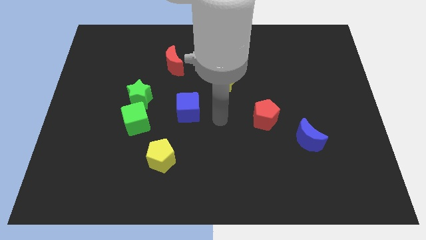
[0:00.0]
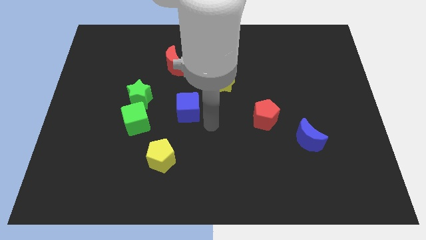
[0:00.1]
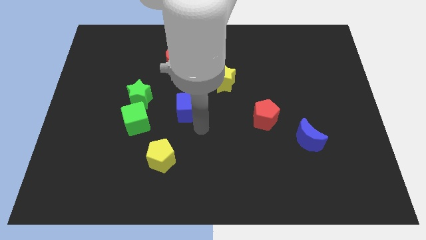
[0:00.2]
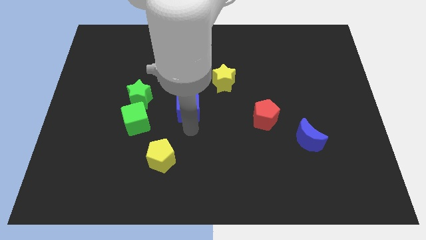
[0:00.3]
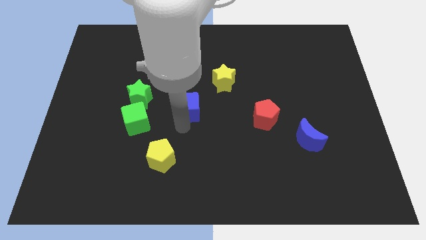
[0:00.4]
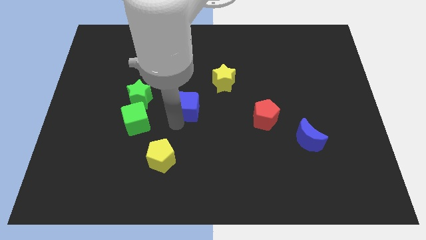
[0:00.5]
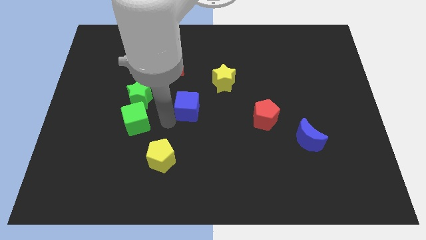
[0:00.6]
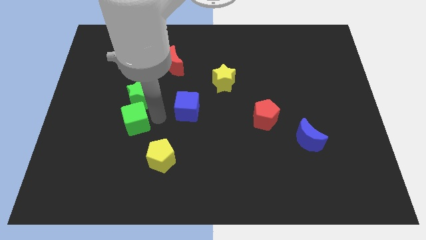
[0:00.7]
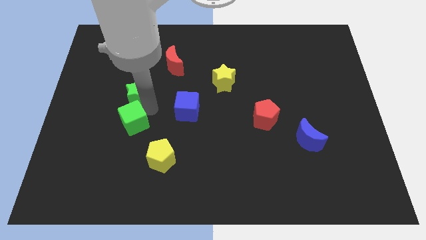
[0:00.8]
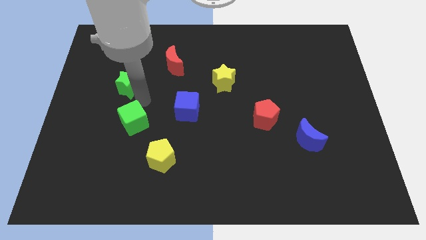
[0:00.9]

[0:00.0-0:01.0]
move the green cube away from the green star

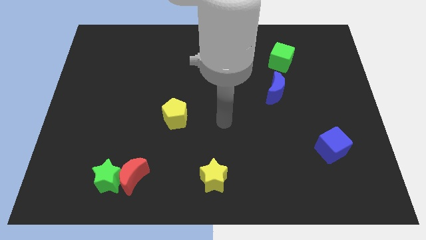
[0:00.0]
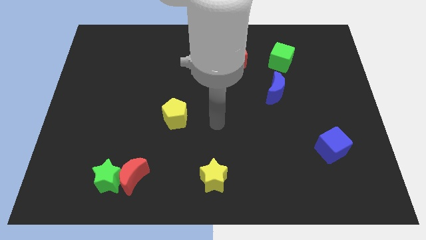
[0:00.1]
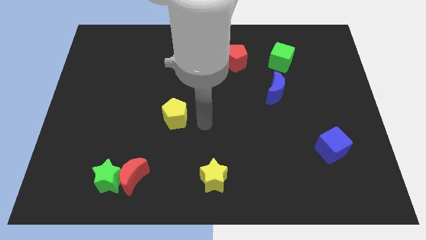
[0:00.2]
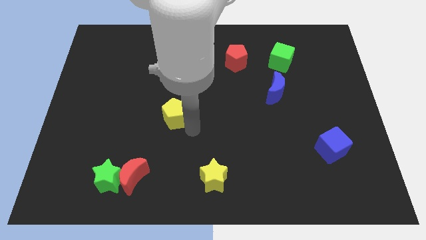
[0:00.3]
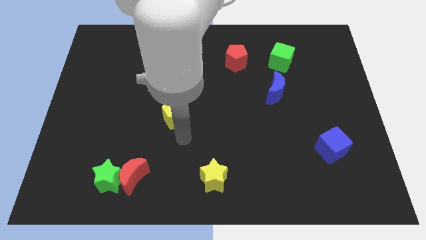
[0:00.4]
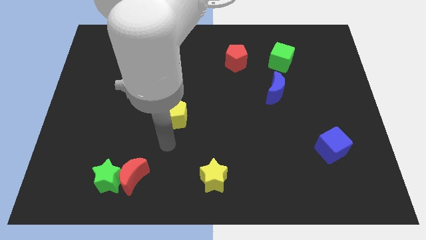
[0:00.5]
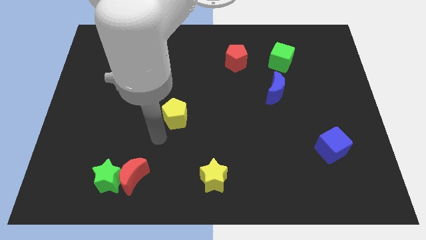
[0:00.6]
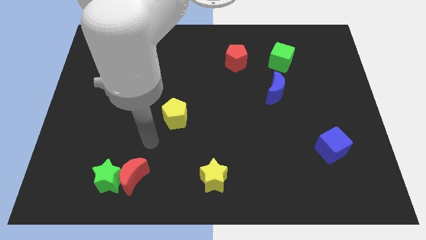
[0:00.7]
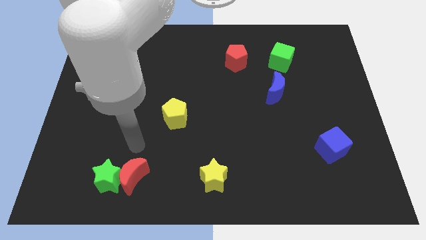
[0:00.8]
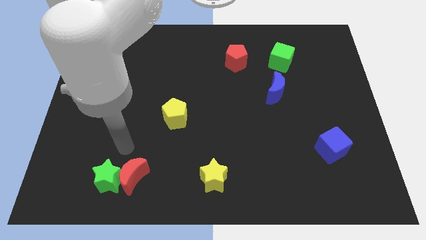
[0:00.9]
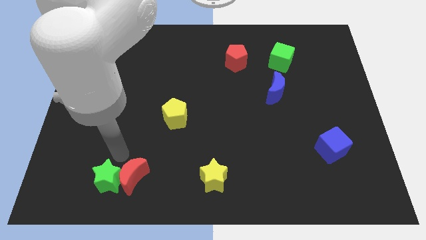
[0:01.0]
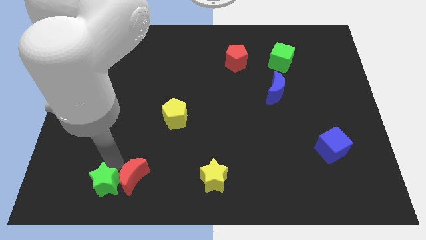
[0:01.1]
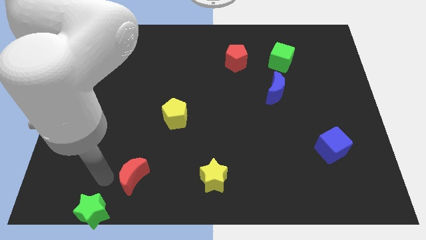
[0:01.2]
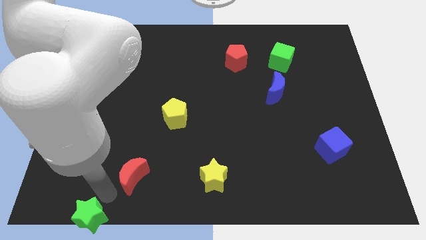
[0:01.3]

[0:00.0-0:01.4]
pull the red moon apart from the green star

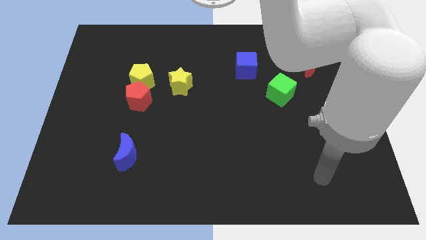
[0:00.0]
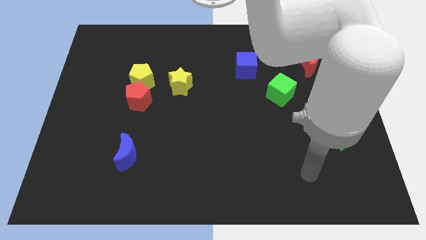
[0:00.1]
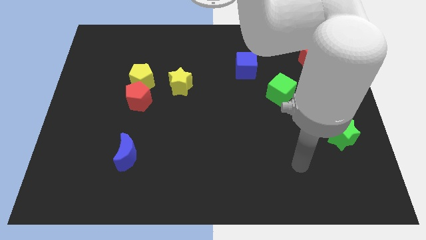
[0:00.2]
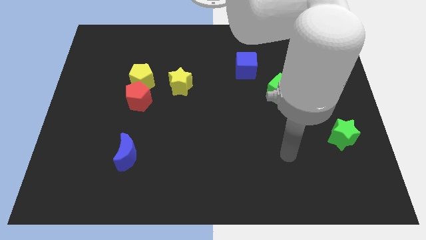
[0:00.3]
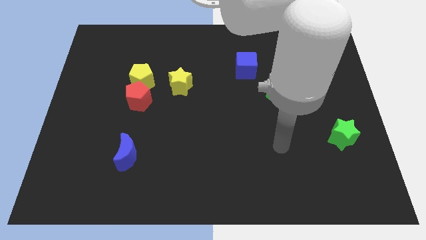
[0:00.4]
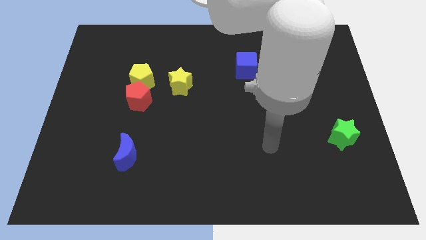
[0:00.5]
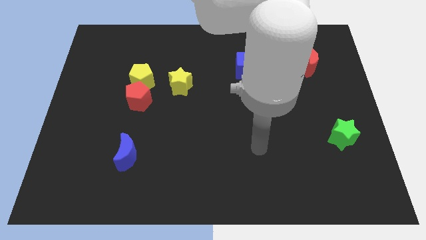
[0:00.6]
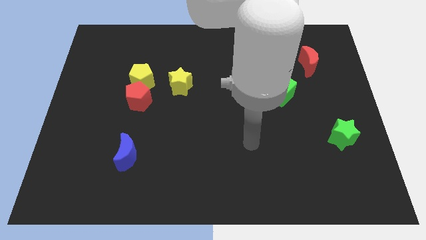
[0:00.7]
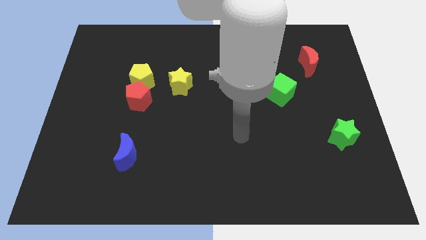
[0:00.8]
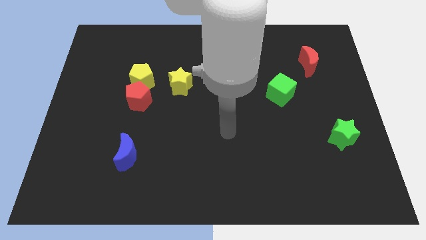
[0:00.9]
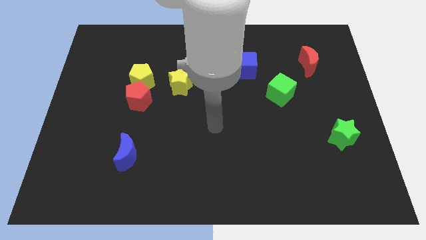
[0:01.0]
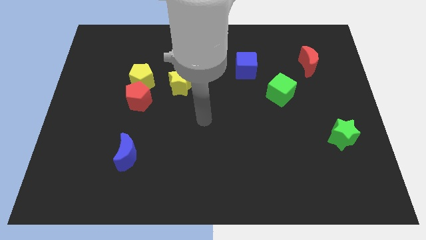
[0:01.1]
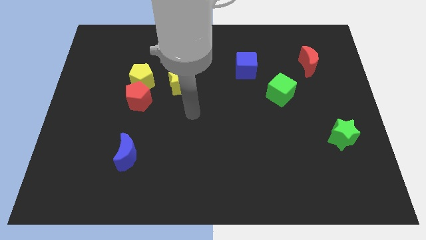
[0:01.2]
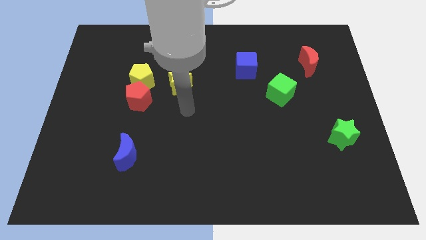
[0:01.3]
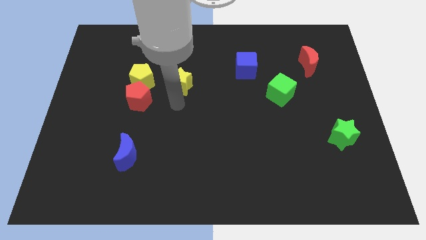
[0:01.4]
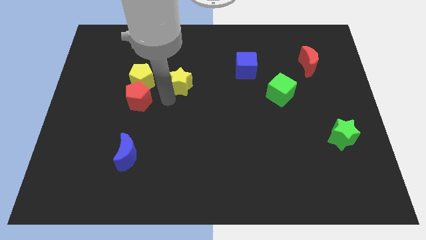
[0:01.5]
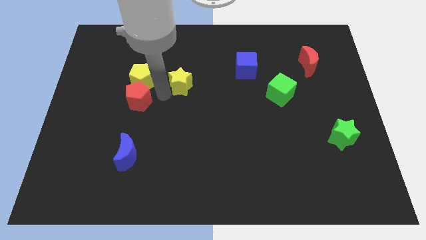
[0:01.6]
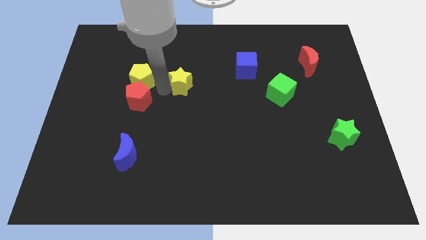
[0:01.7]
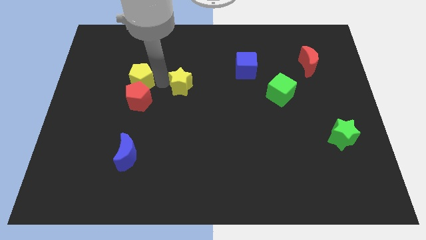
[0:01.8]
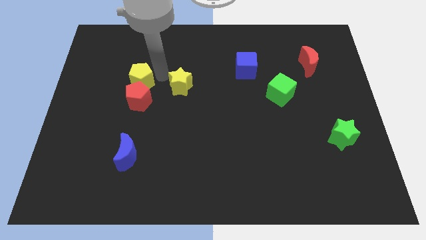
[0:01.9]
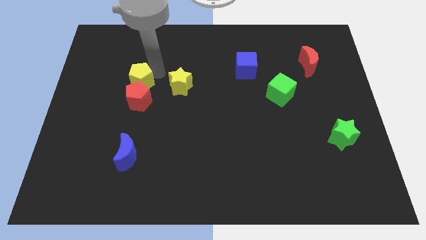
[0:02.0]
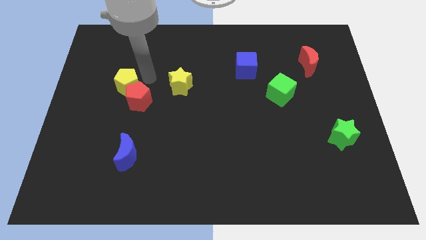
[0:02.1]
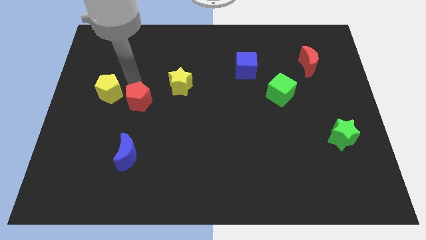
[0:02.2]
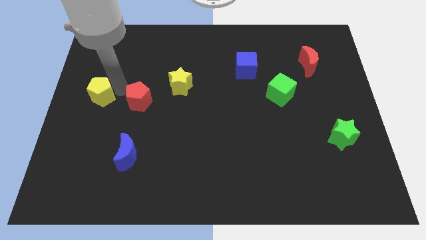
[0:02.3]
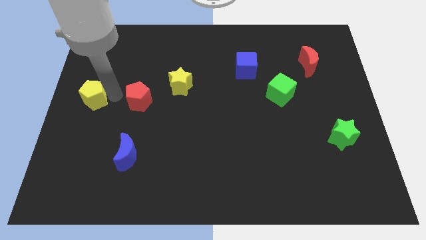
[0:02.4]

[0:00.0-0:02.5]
pull the red pentagon apart from the yellow pentagon

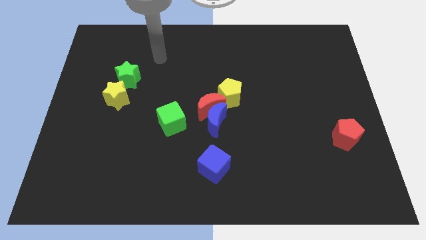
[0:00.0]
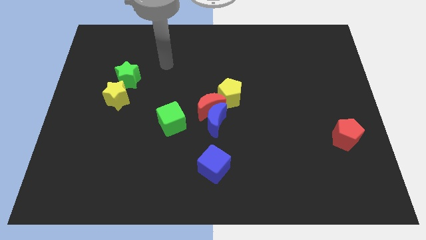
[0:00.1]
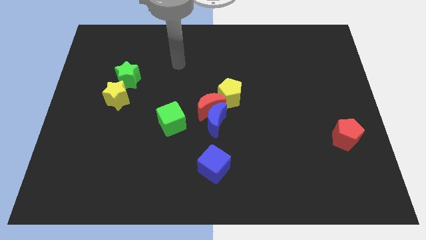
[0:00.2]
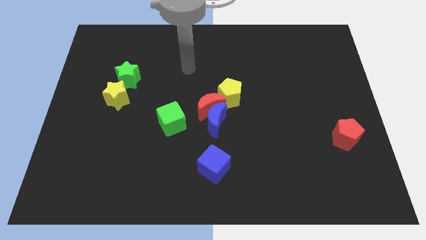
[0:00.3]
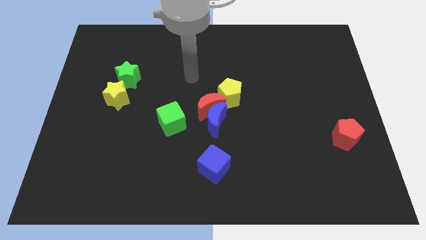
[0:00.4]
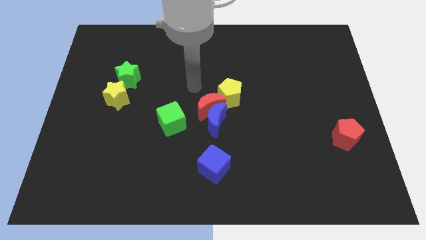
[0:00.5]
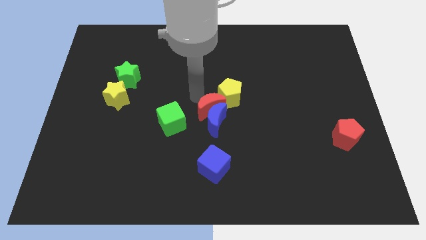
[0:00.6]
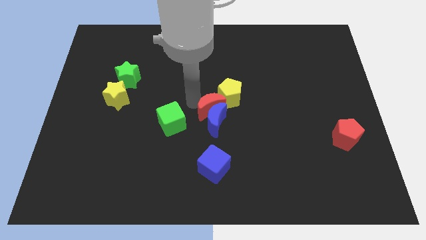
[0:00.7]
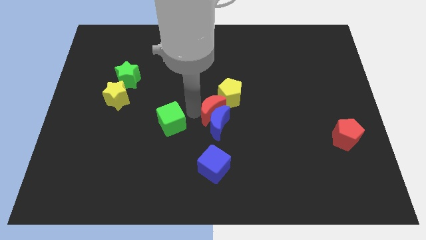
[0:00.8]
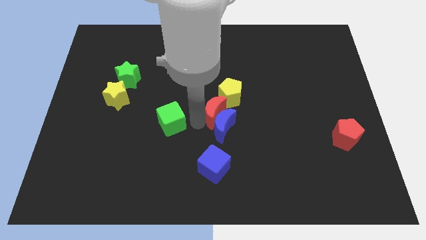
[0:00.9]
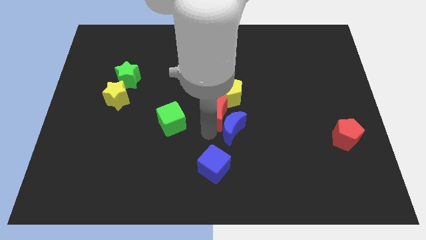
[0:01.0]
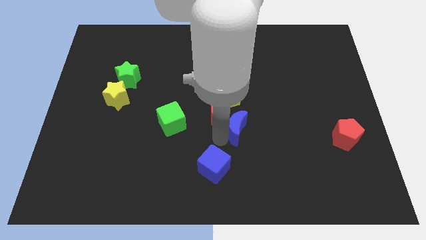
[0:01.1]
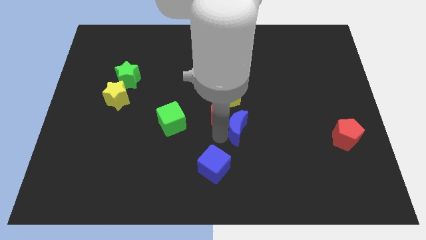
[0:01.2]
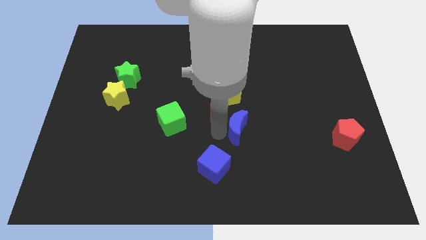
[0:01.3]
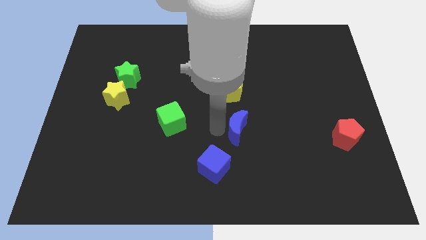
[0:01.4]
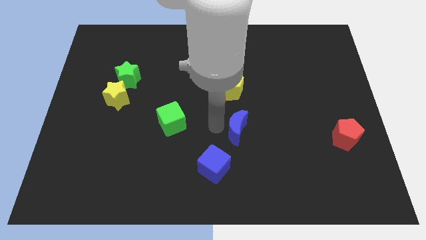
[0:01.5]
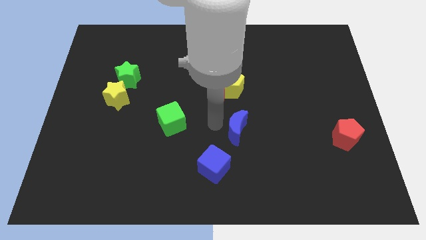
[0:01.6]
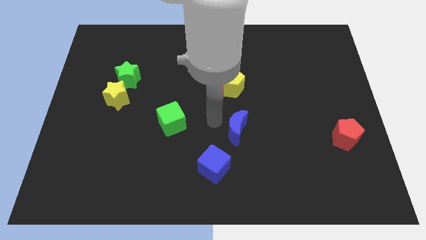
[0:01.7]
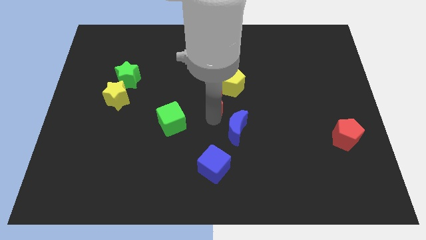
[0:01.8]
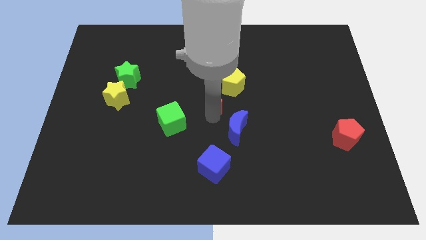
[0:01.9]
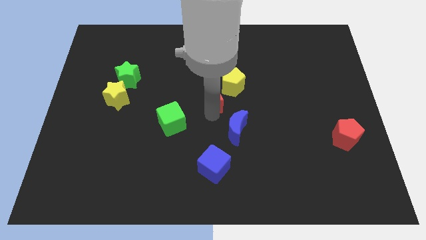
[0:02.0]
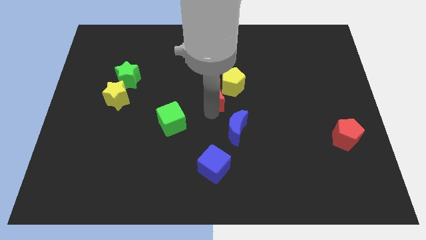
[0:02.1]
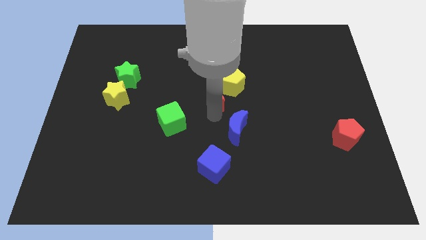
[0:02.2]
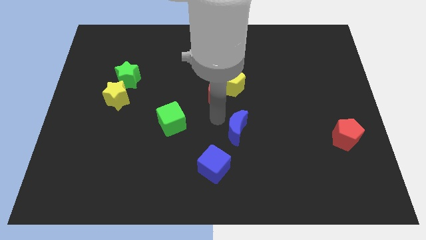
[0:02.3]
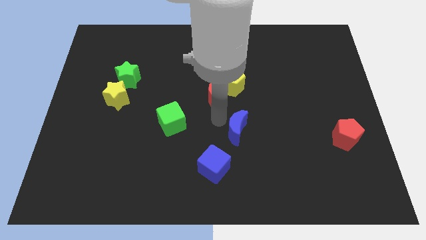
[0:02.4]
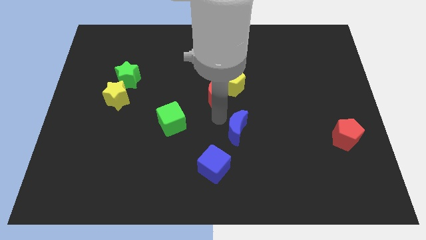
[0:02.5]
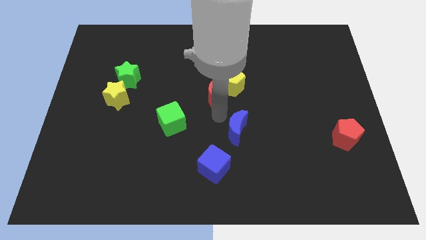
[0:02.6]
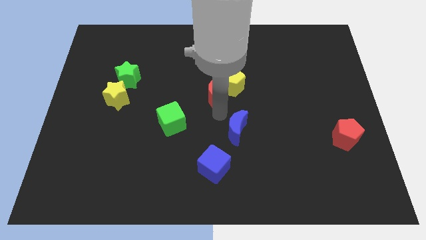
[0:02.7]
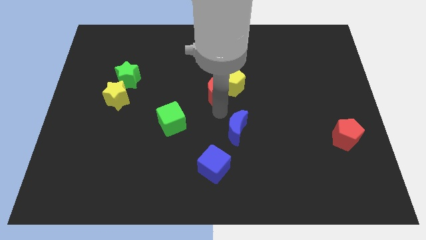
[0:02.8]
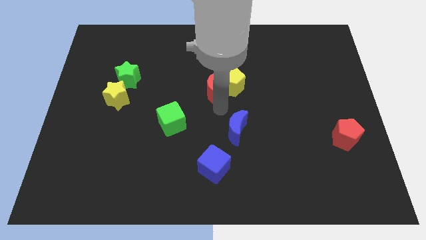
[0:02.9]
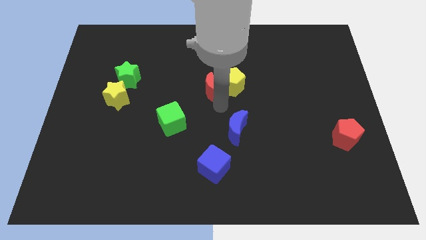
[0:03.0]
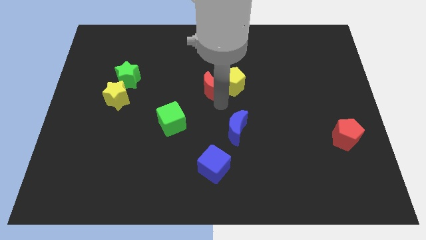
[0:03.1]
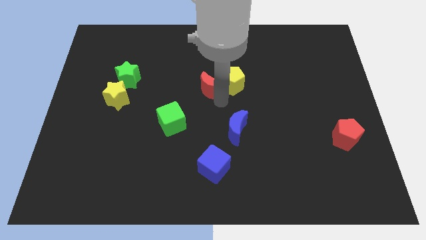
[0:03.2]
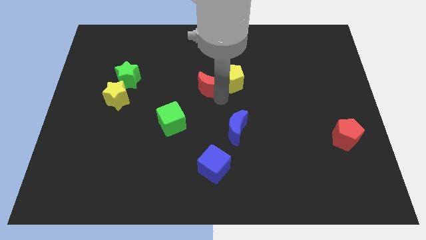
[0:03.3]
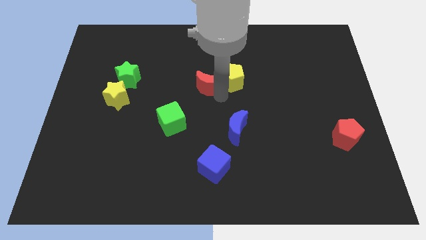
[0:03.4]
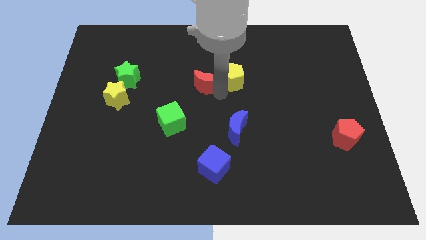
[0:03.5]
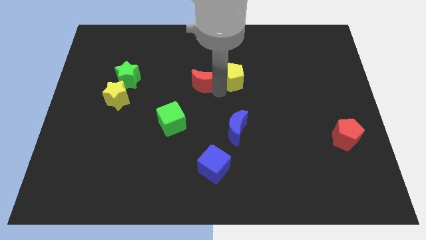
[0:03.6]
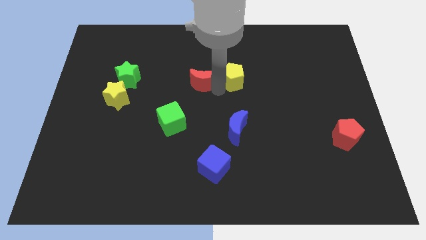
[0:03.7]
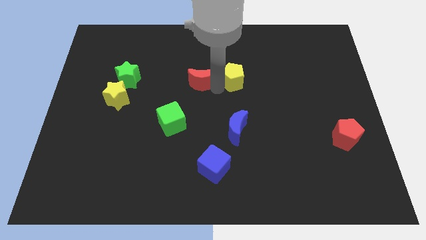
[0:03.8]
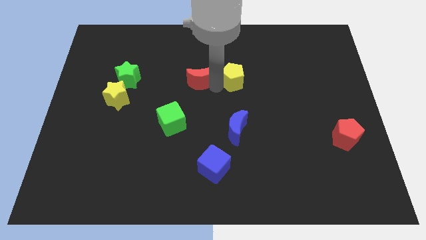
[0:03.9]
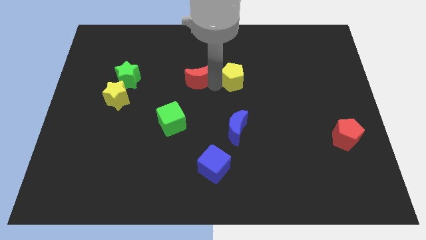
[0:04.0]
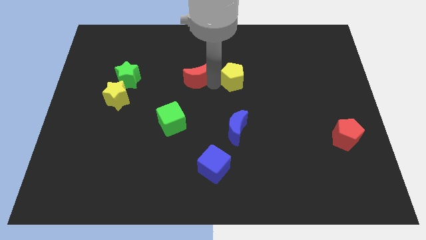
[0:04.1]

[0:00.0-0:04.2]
move the red moon away from the blue moon, yellow pentagon, and green cube

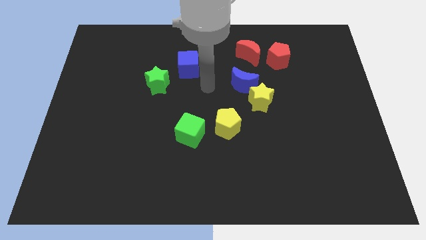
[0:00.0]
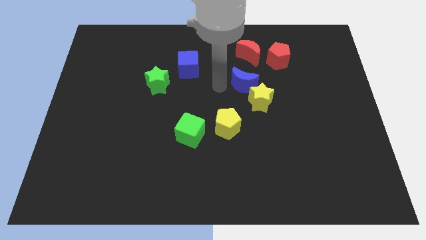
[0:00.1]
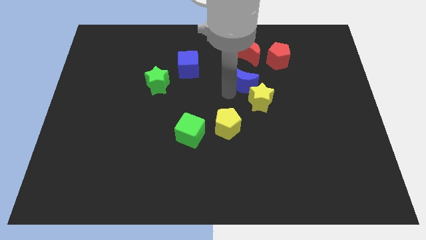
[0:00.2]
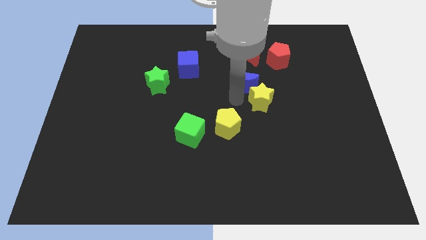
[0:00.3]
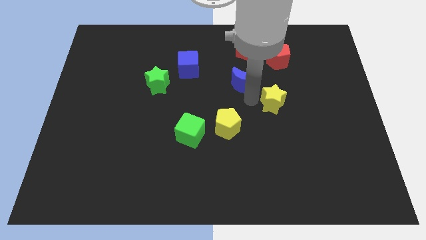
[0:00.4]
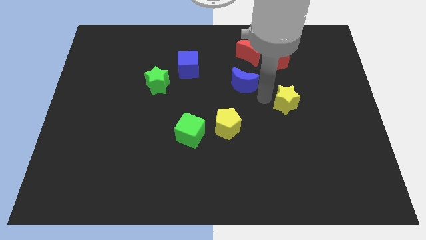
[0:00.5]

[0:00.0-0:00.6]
pull the blue moon apart from the yellow star
